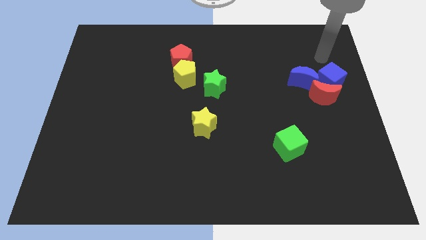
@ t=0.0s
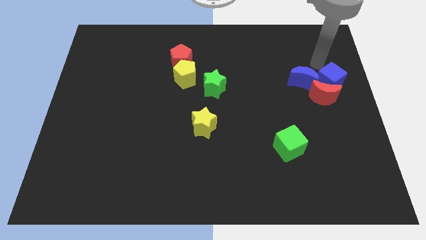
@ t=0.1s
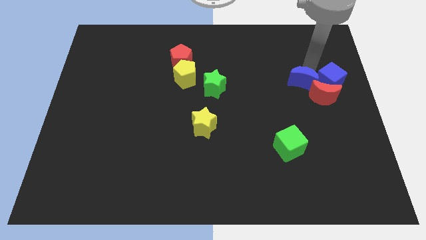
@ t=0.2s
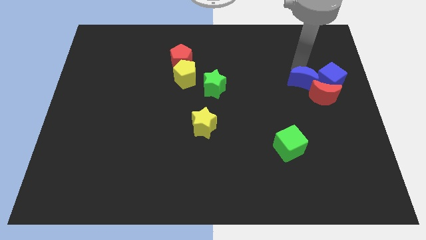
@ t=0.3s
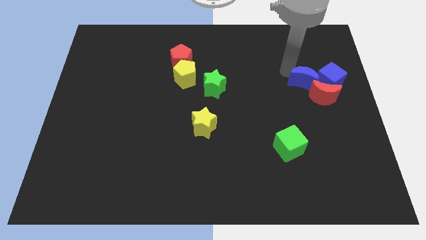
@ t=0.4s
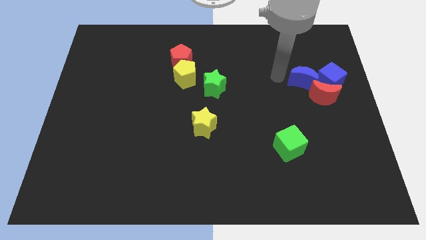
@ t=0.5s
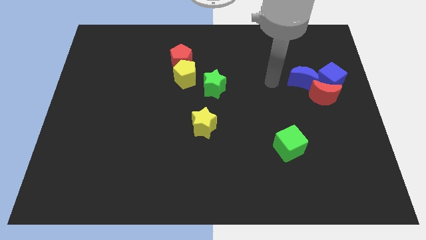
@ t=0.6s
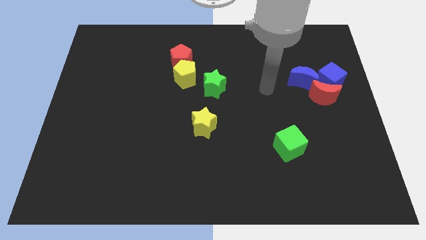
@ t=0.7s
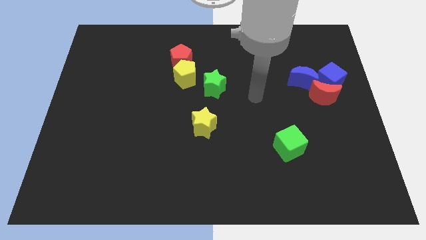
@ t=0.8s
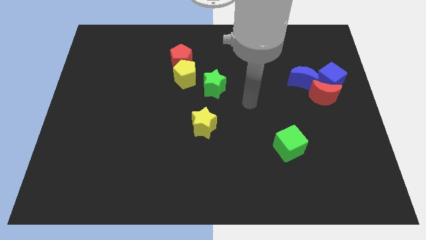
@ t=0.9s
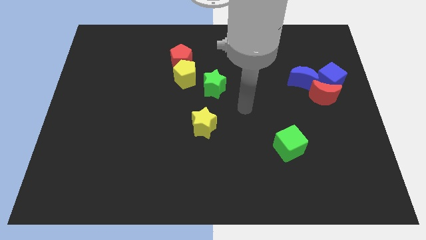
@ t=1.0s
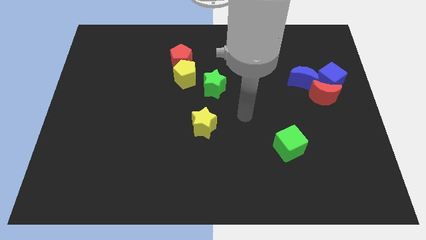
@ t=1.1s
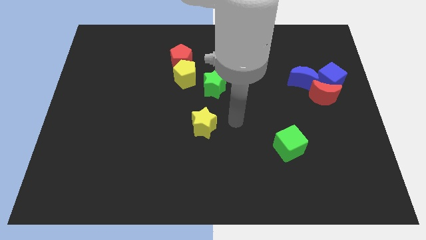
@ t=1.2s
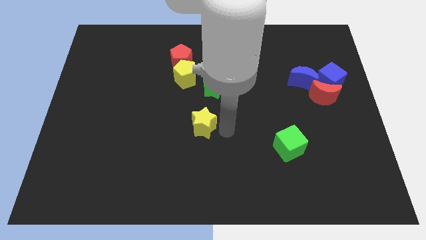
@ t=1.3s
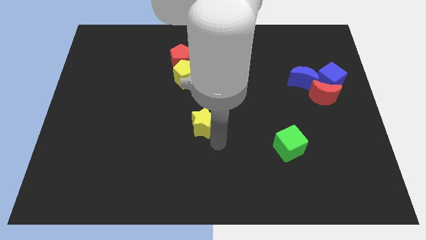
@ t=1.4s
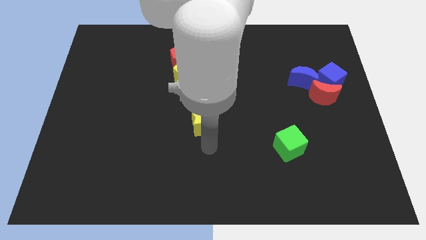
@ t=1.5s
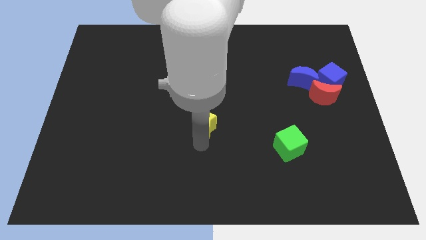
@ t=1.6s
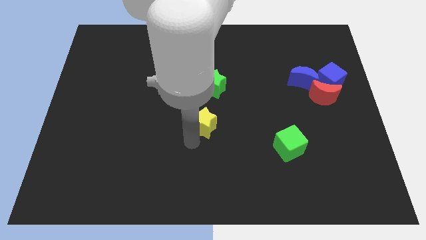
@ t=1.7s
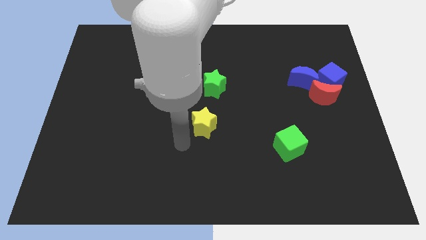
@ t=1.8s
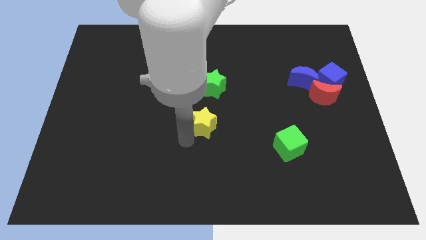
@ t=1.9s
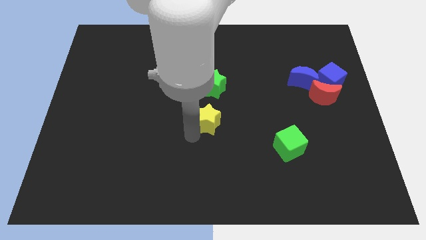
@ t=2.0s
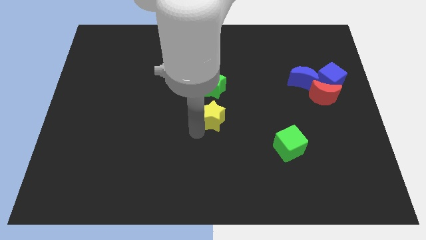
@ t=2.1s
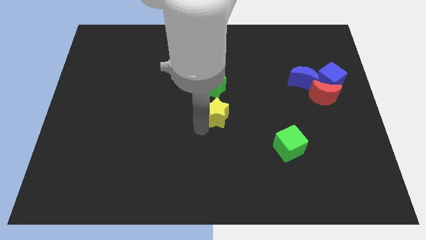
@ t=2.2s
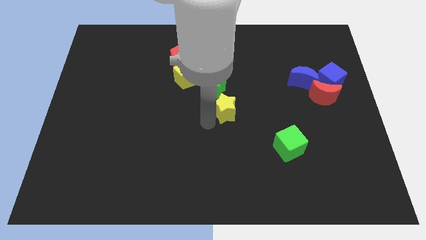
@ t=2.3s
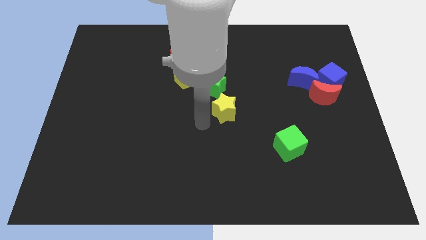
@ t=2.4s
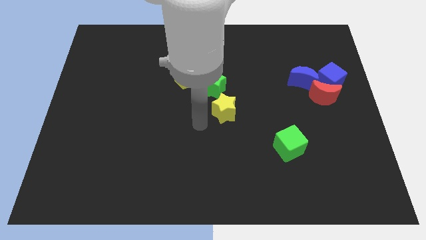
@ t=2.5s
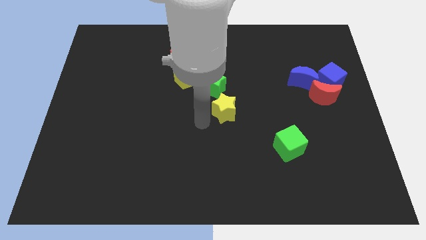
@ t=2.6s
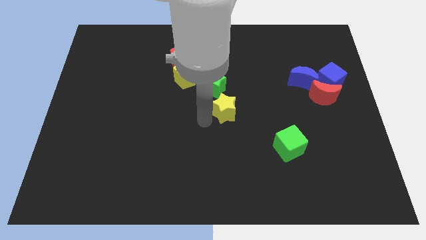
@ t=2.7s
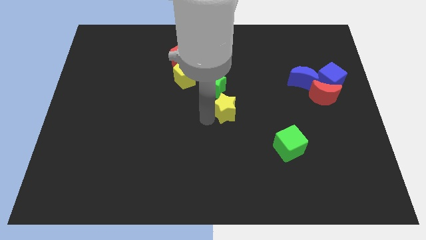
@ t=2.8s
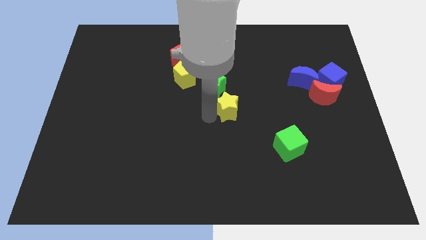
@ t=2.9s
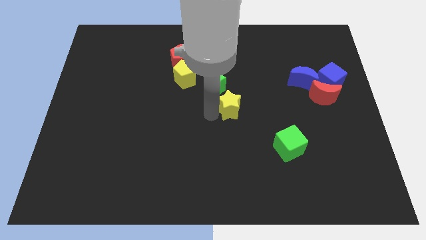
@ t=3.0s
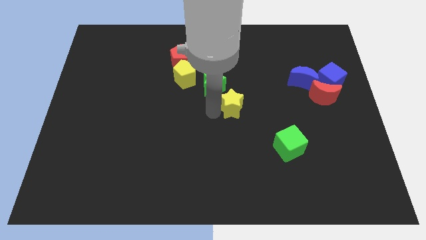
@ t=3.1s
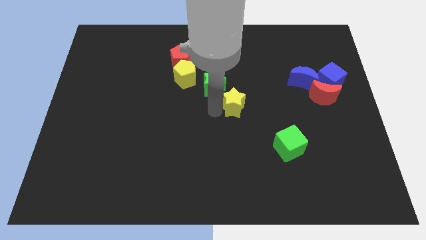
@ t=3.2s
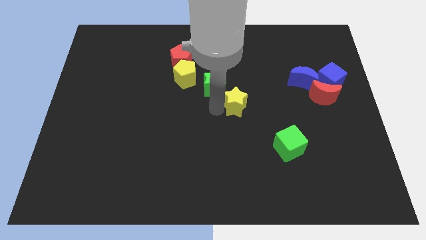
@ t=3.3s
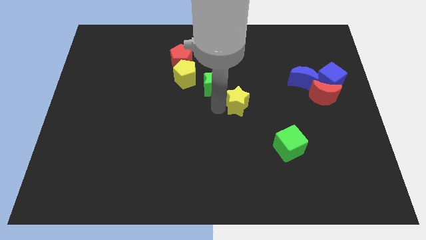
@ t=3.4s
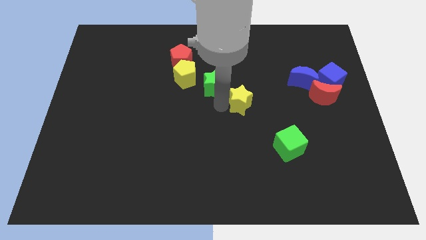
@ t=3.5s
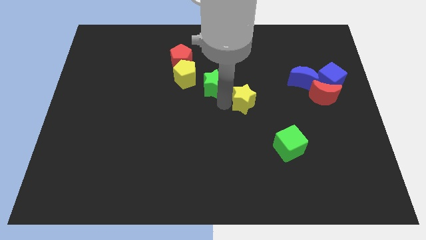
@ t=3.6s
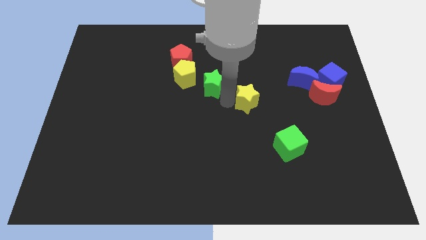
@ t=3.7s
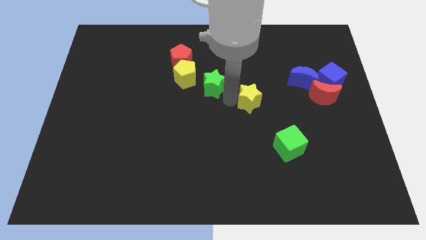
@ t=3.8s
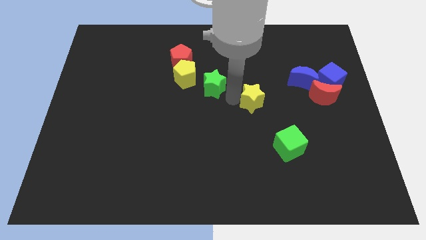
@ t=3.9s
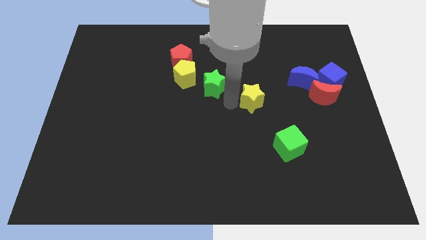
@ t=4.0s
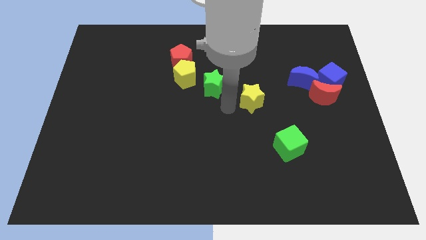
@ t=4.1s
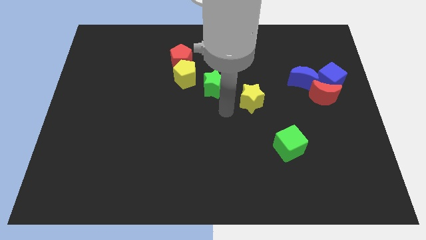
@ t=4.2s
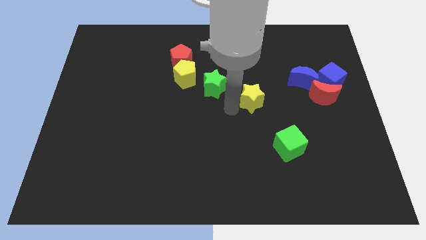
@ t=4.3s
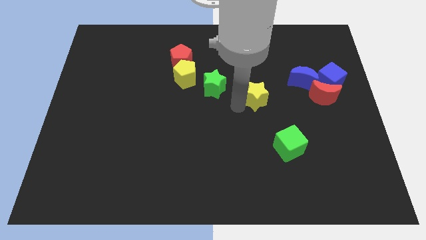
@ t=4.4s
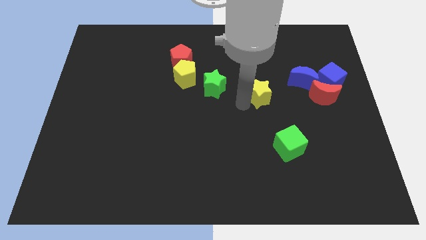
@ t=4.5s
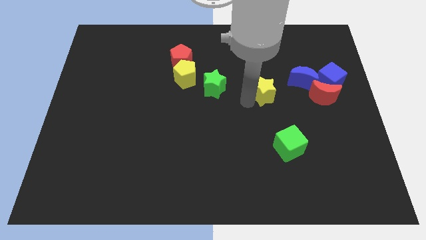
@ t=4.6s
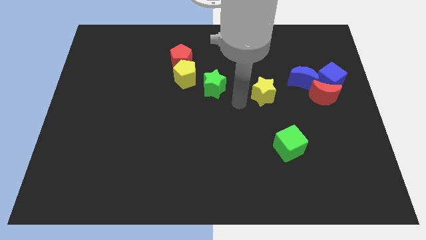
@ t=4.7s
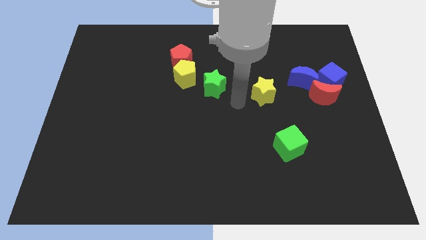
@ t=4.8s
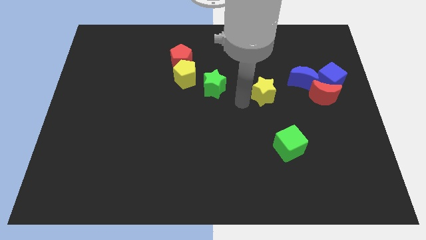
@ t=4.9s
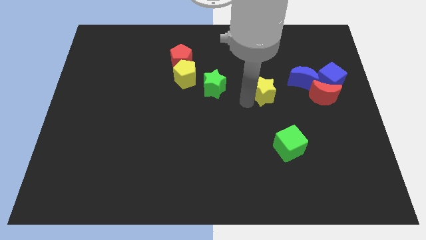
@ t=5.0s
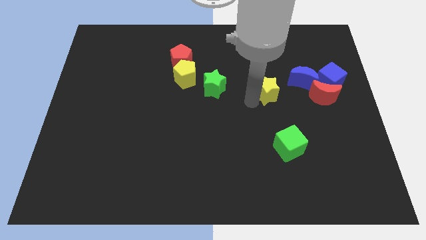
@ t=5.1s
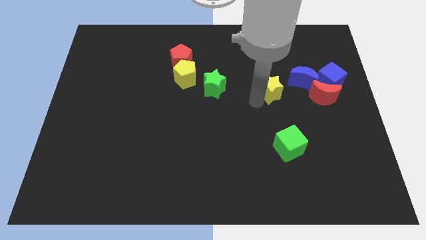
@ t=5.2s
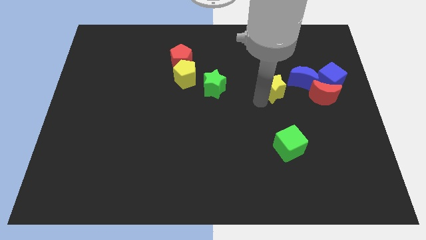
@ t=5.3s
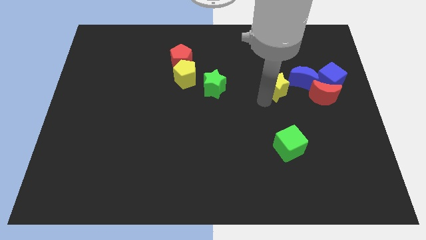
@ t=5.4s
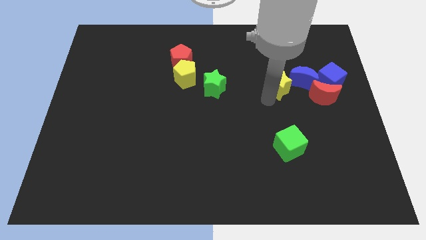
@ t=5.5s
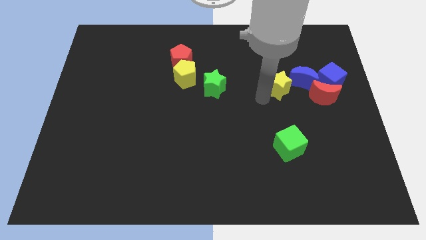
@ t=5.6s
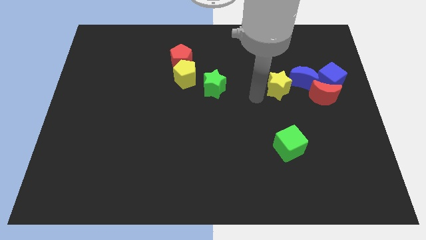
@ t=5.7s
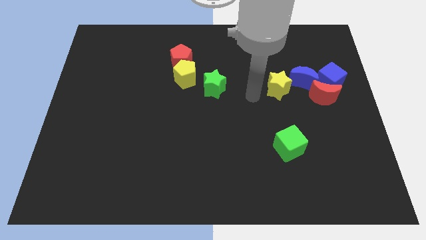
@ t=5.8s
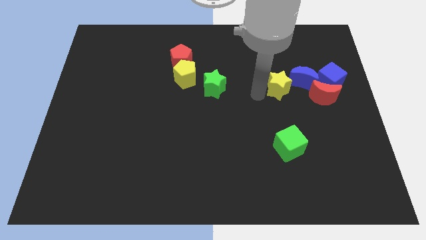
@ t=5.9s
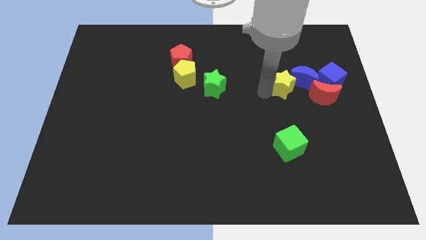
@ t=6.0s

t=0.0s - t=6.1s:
move the yellow star to the blue moon

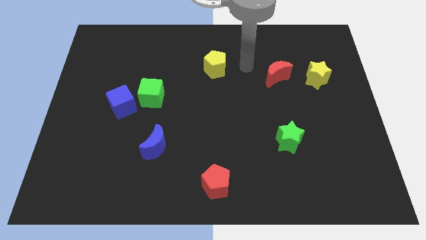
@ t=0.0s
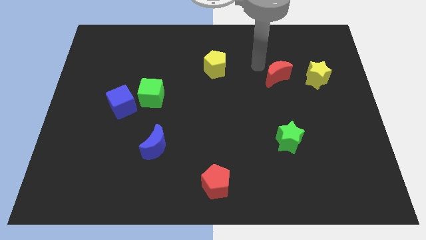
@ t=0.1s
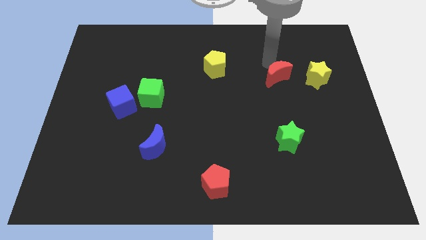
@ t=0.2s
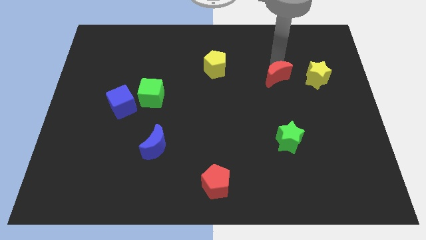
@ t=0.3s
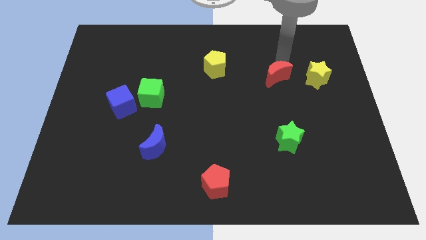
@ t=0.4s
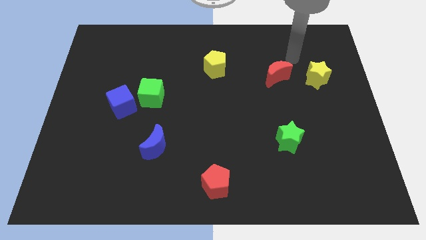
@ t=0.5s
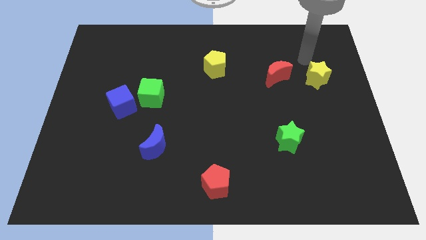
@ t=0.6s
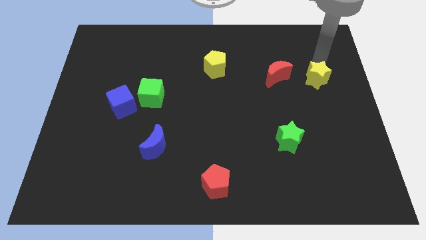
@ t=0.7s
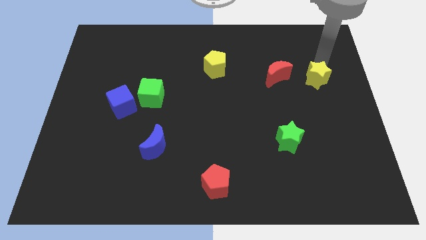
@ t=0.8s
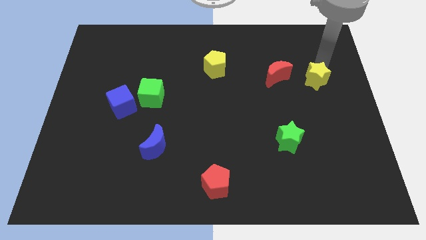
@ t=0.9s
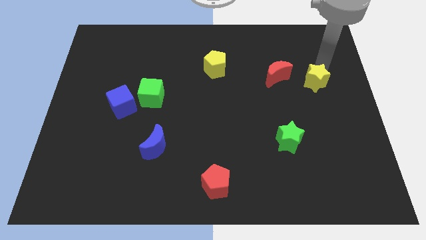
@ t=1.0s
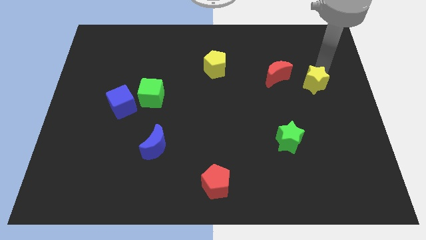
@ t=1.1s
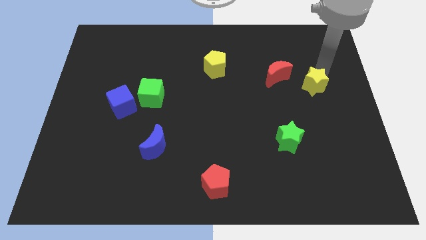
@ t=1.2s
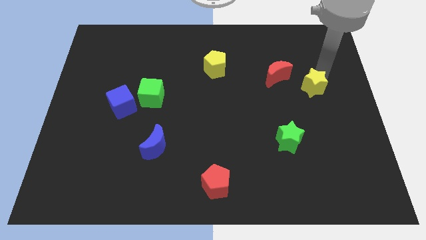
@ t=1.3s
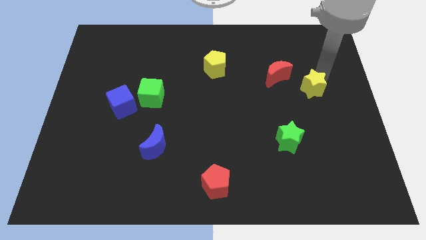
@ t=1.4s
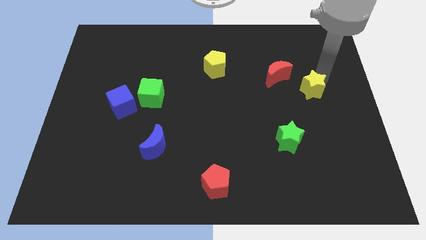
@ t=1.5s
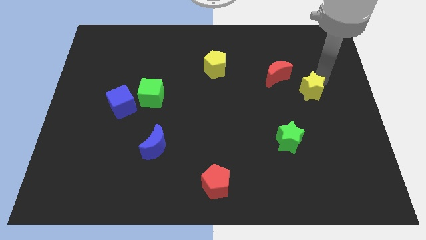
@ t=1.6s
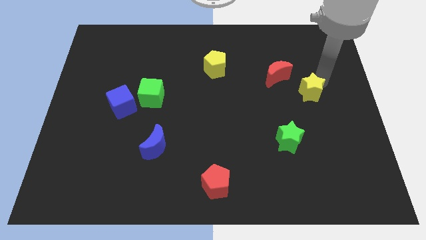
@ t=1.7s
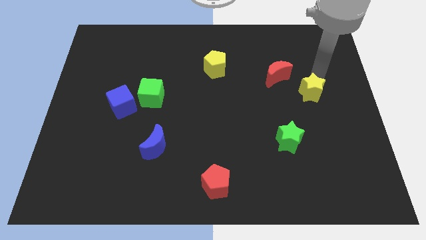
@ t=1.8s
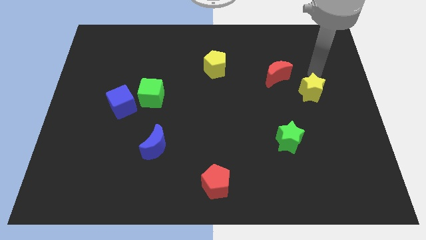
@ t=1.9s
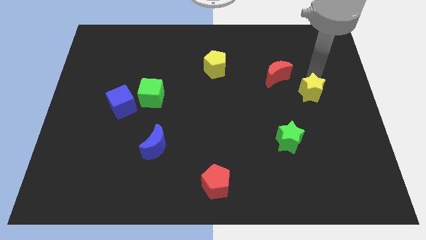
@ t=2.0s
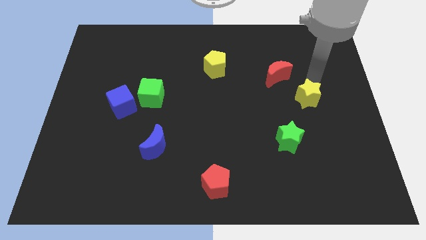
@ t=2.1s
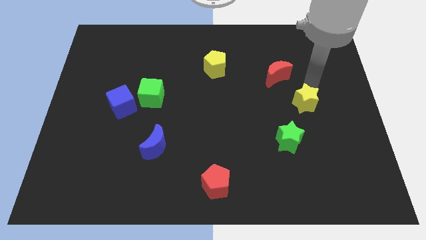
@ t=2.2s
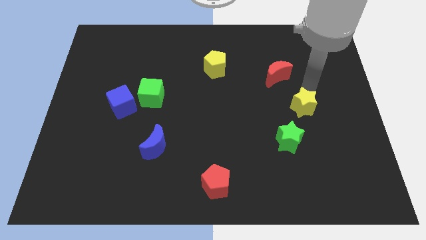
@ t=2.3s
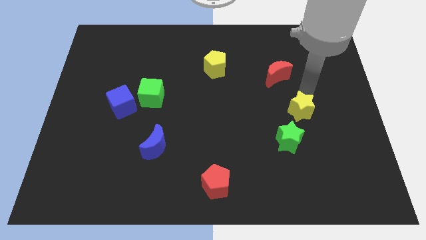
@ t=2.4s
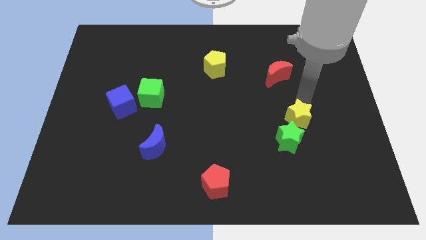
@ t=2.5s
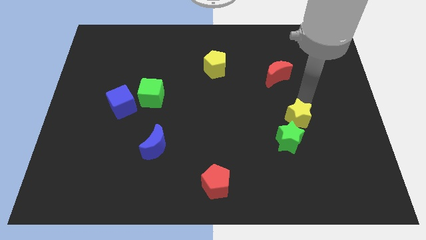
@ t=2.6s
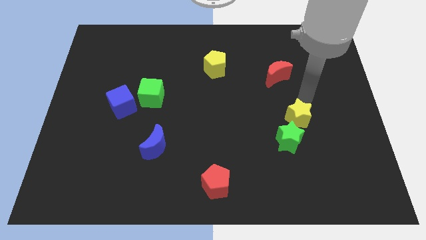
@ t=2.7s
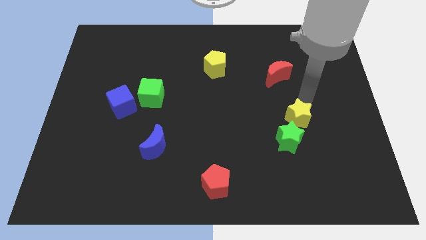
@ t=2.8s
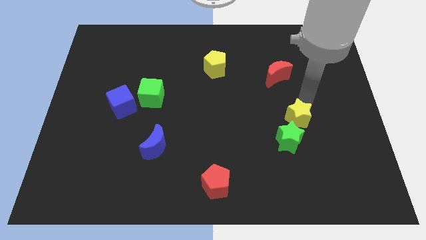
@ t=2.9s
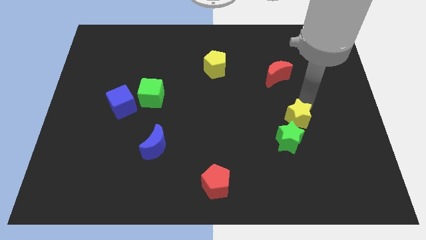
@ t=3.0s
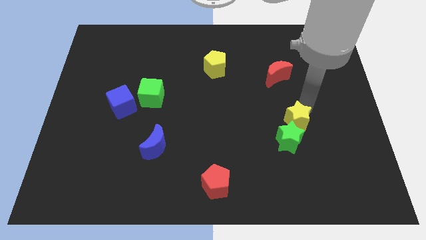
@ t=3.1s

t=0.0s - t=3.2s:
put the yellow star next to the green star
